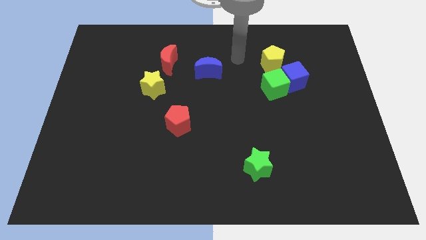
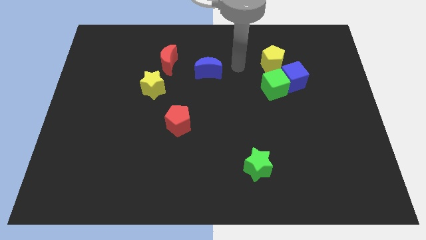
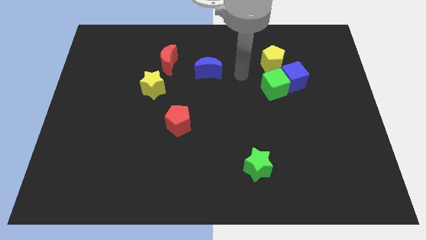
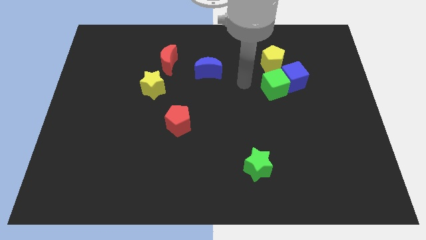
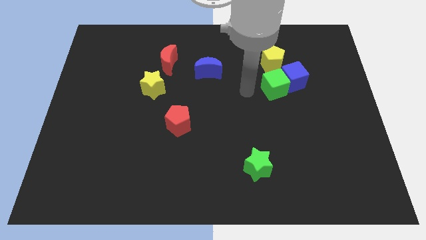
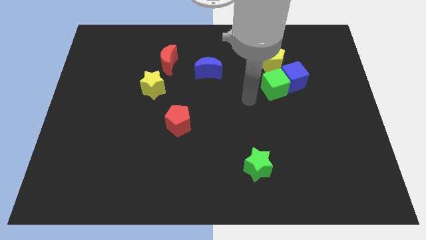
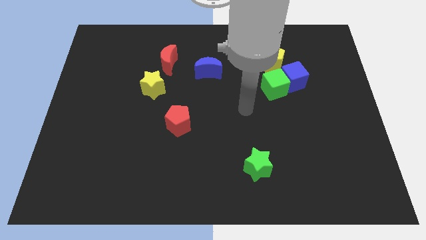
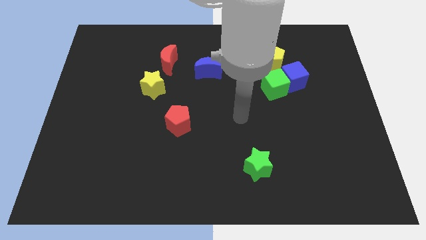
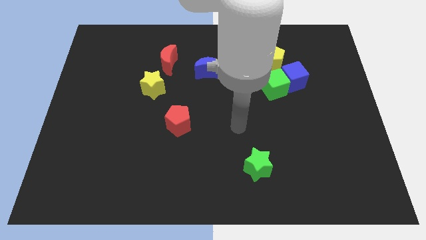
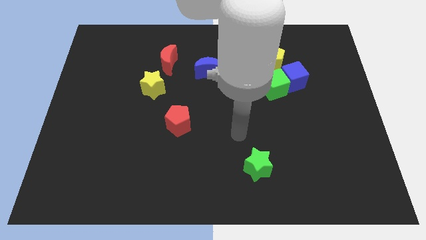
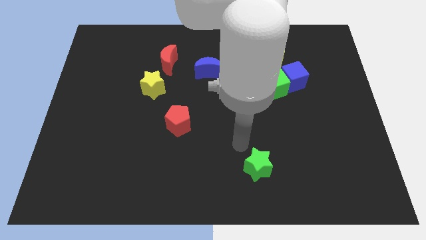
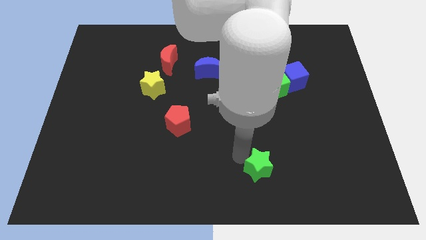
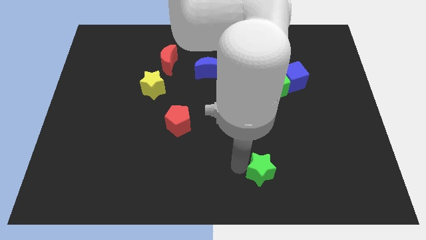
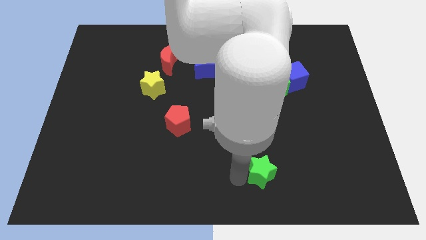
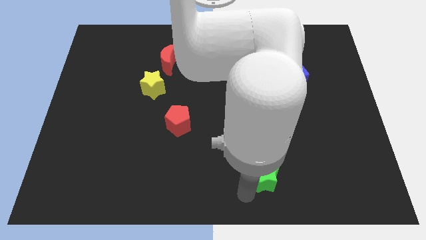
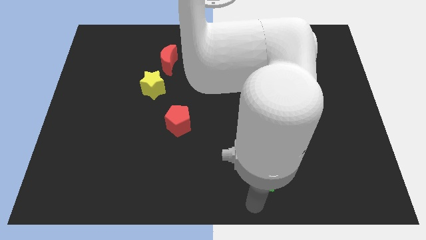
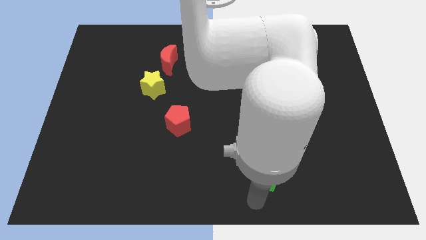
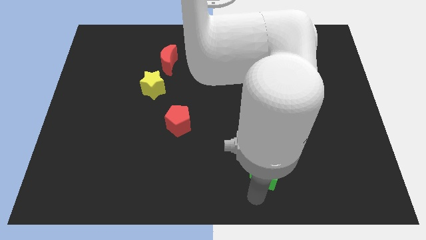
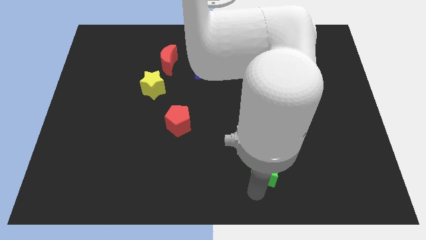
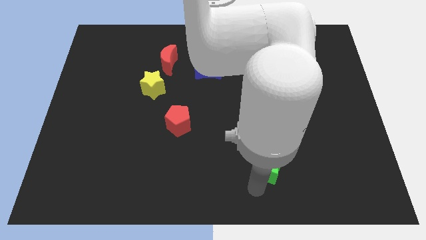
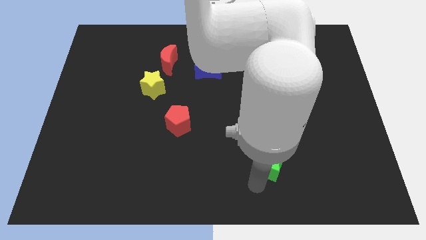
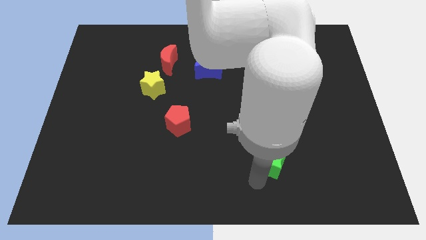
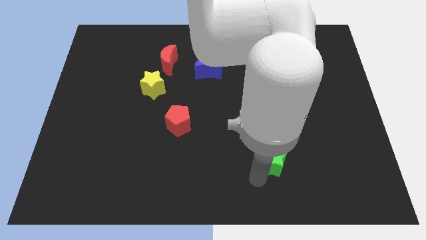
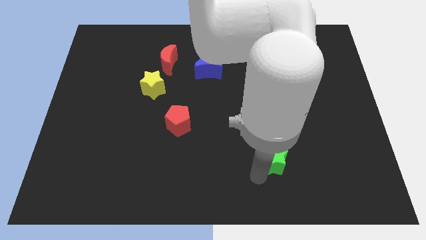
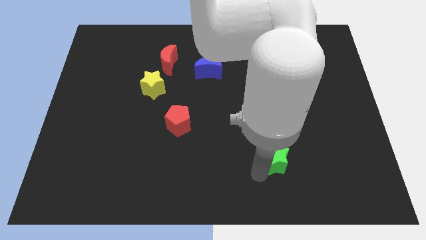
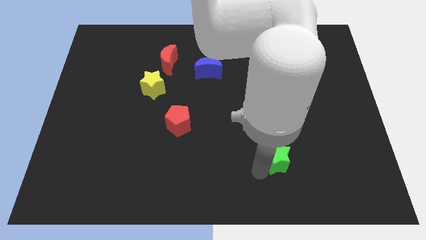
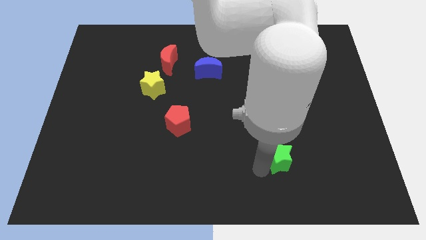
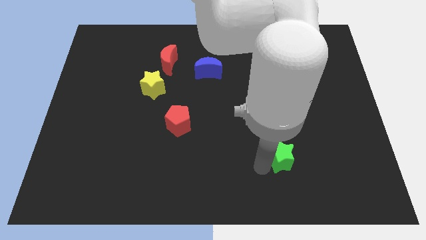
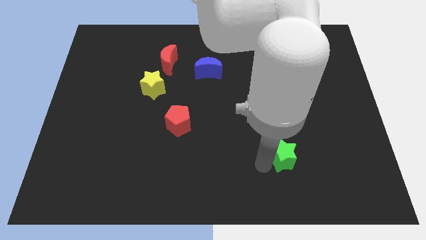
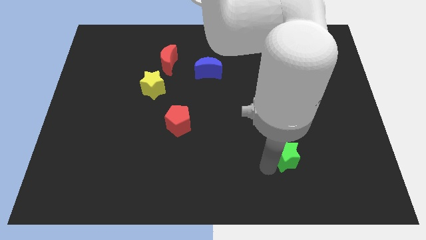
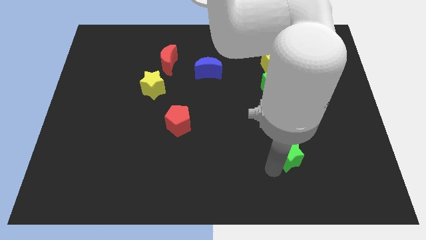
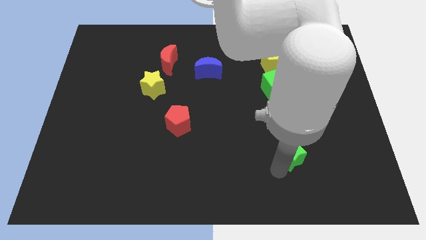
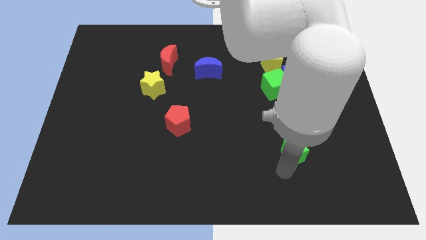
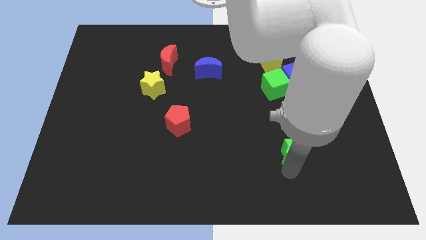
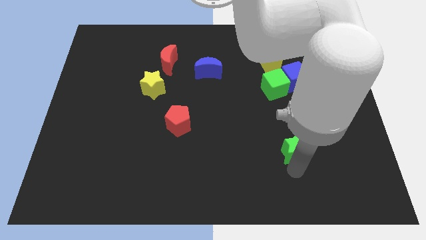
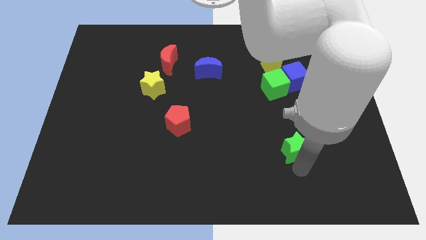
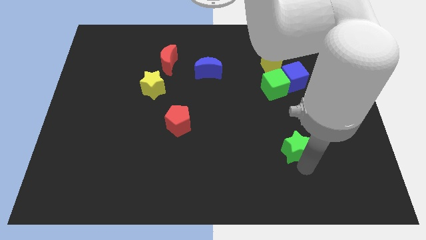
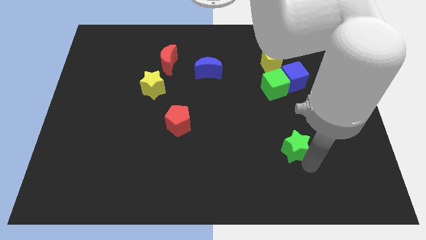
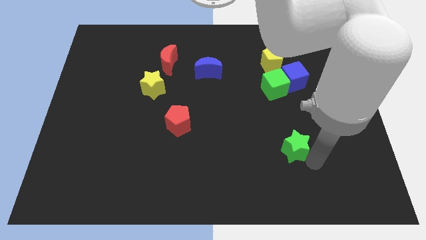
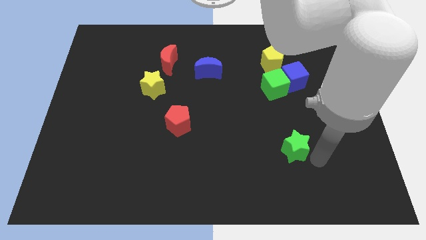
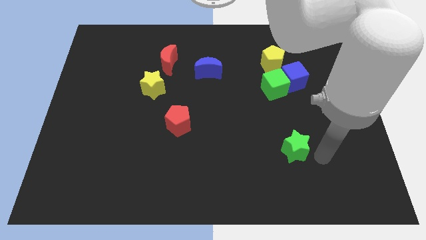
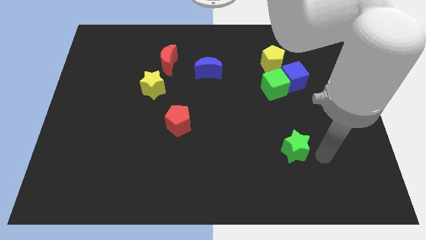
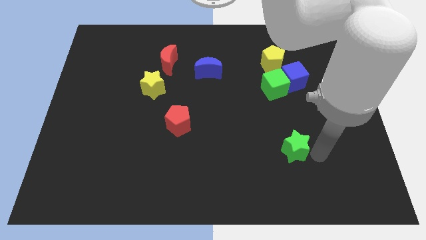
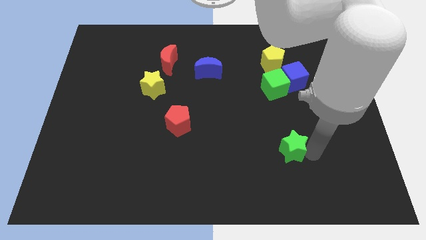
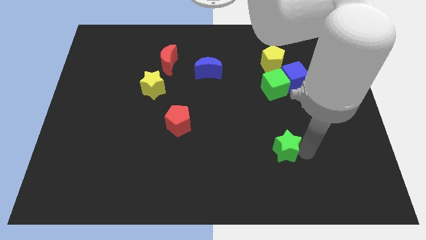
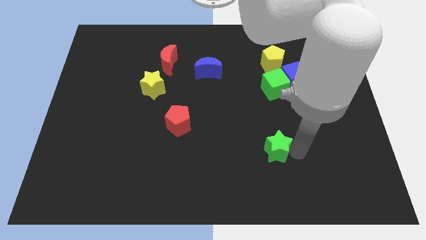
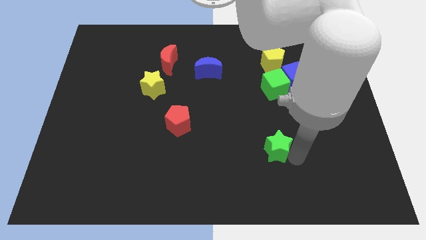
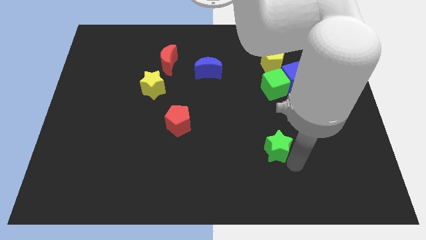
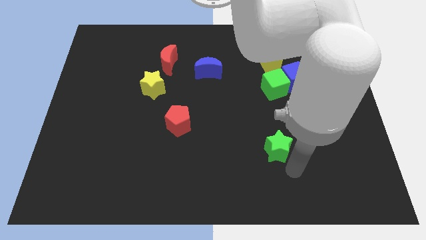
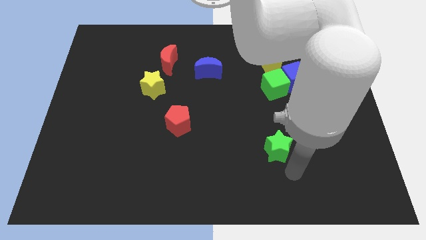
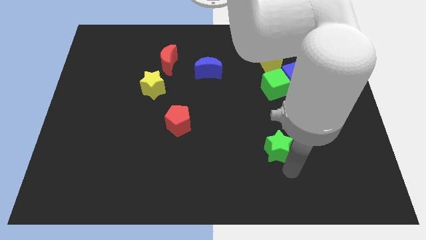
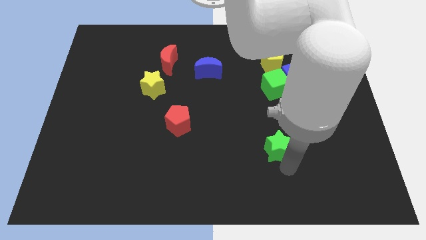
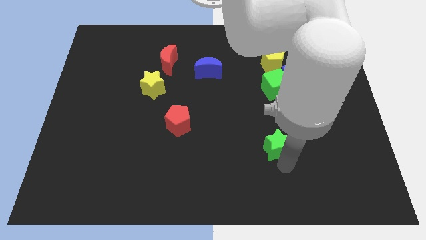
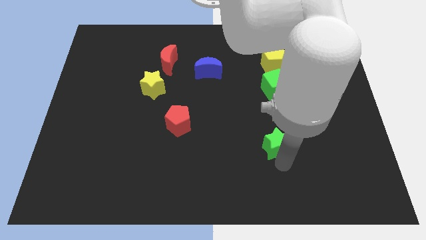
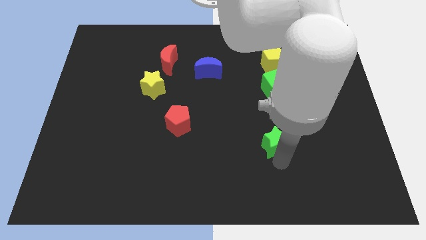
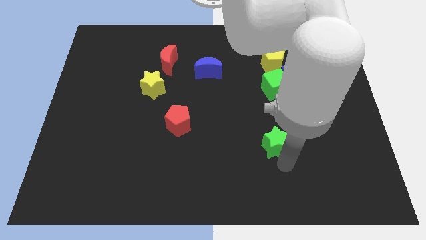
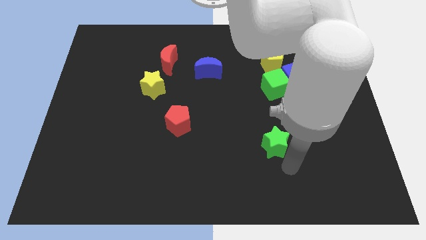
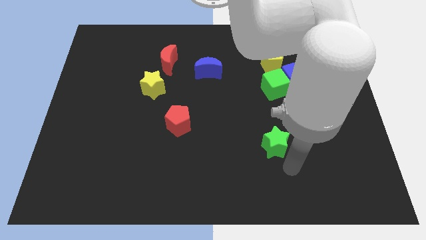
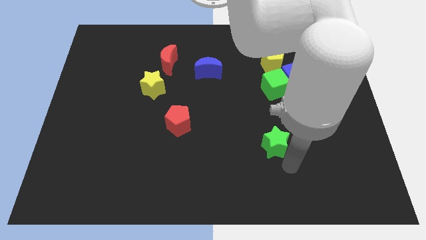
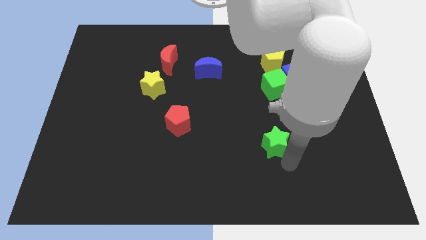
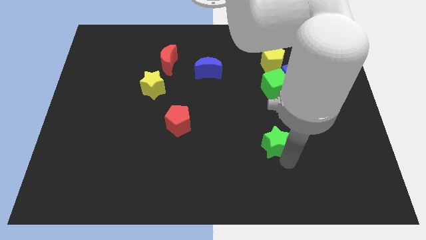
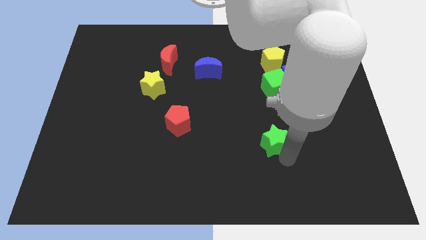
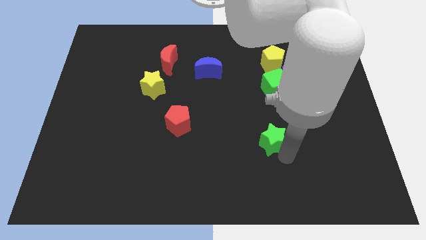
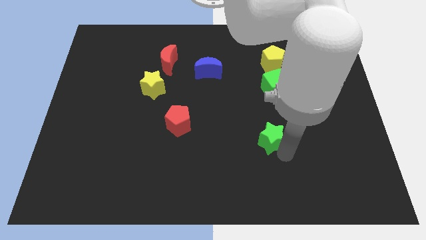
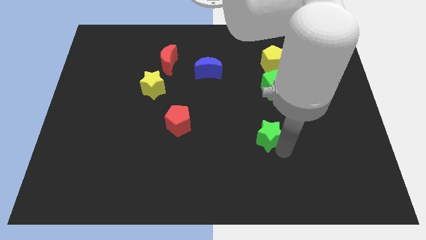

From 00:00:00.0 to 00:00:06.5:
slightly move the green star up

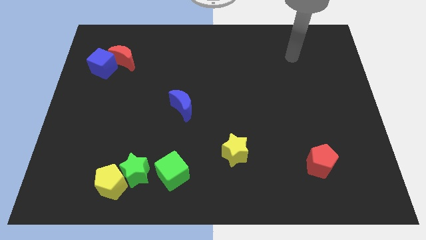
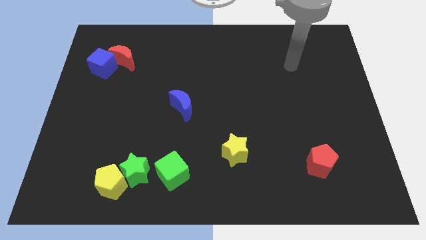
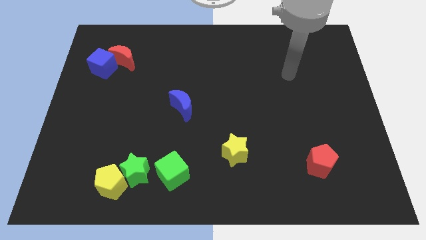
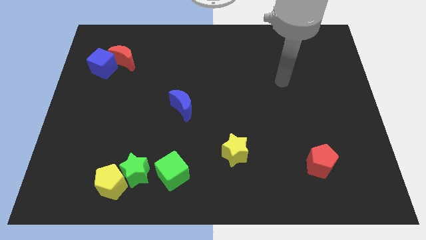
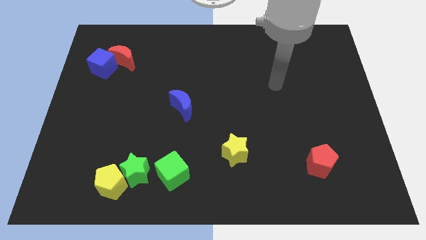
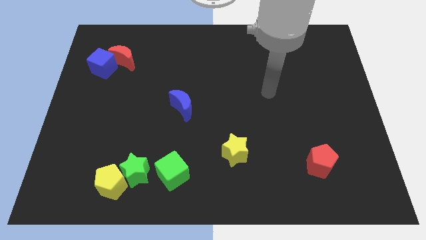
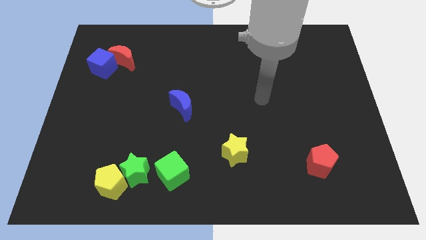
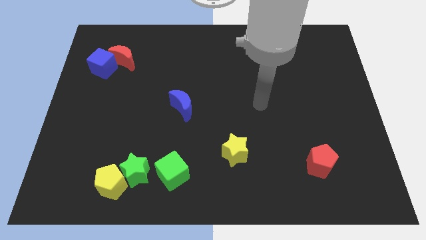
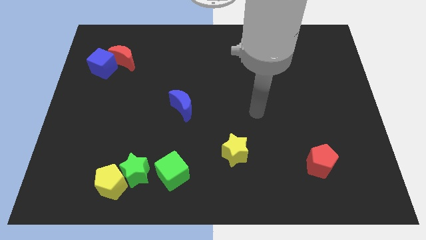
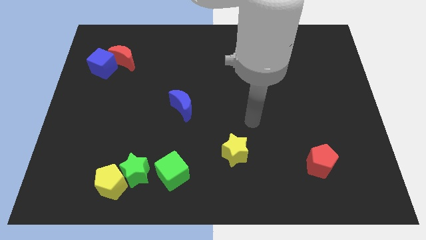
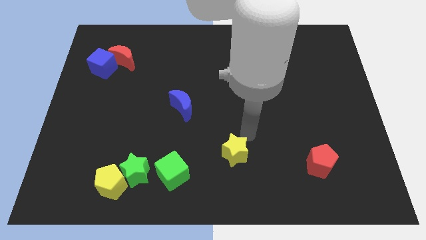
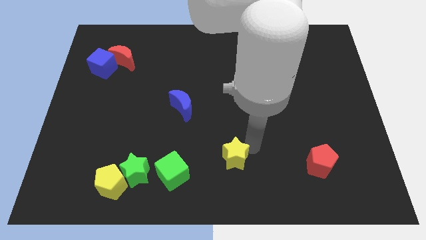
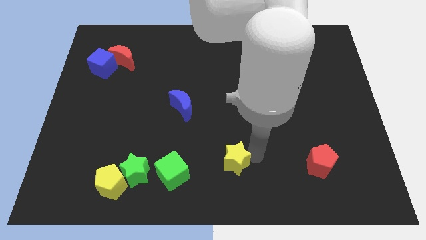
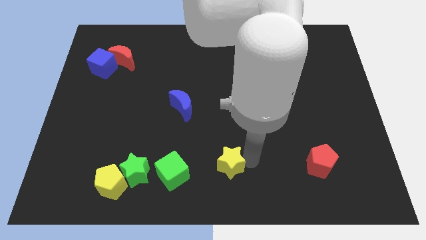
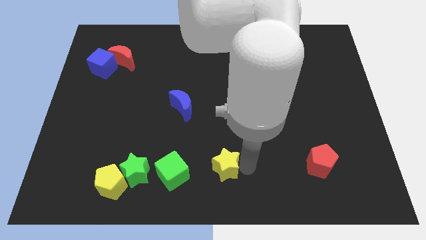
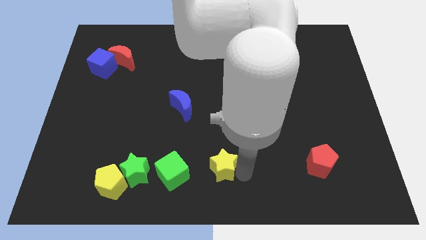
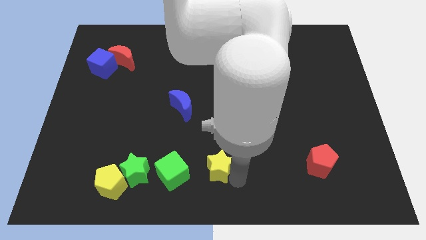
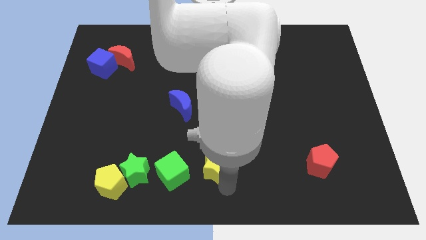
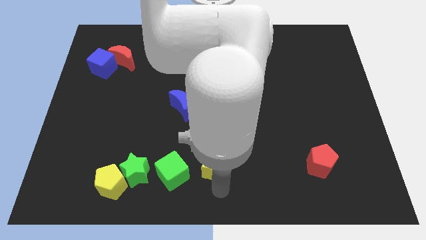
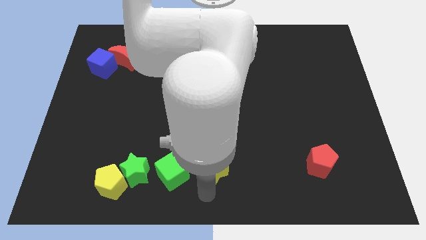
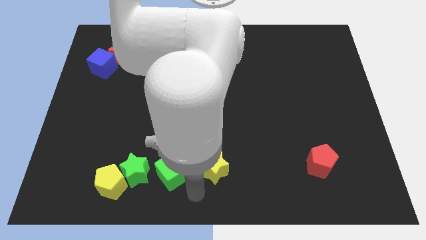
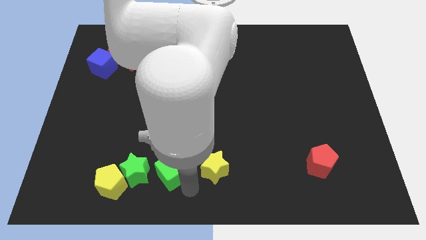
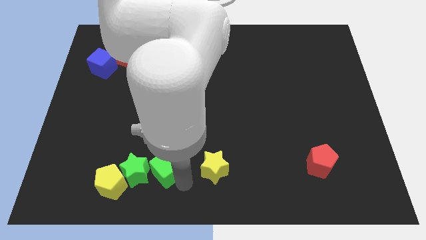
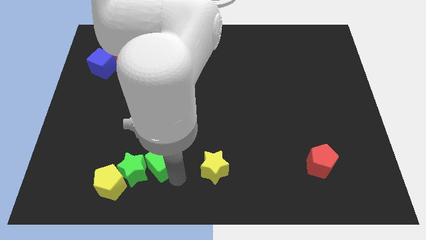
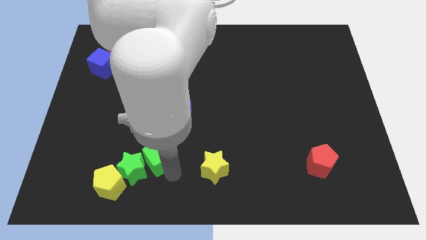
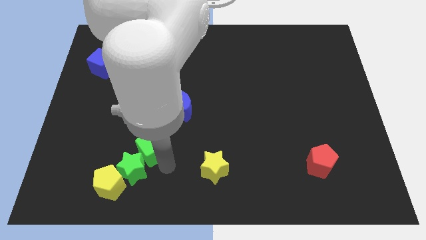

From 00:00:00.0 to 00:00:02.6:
move the green cube slightly upwards and then to the left
